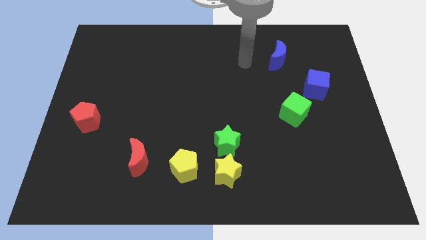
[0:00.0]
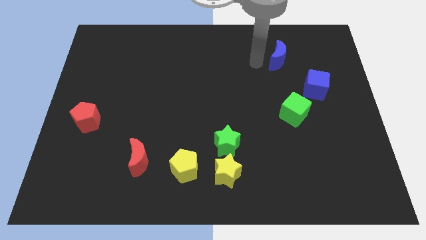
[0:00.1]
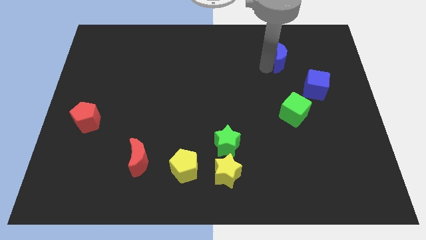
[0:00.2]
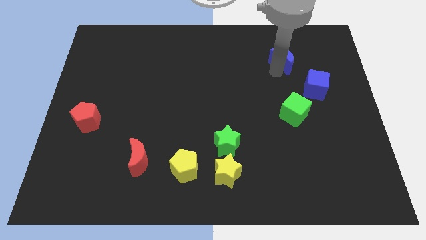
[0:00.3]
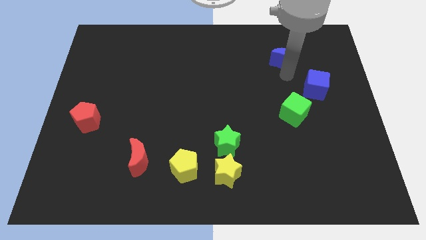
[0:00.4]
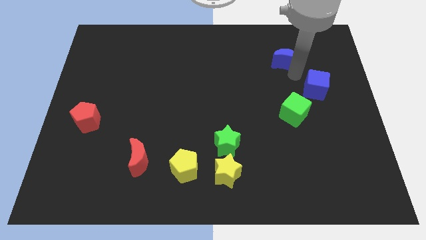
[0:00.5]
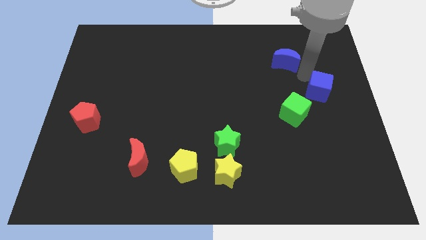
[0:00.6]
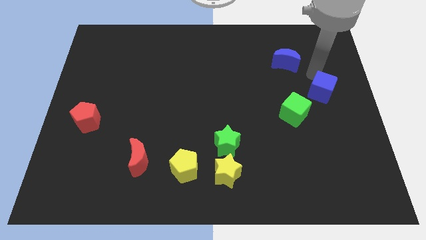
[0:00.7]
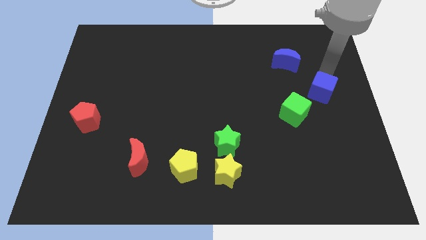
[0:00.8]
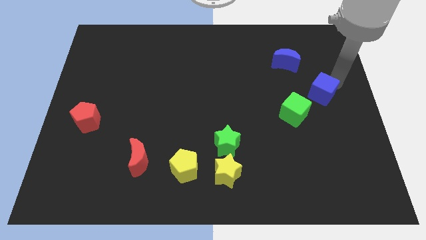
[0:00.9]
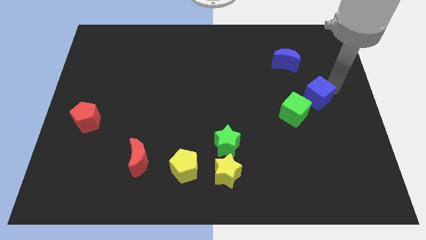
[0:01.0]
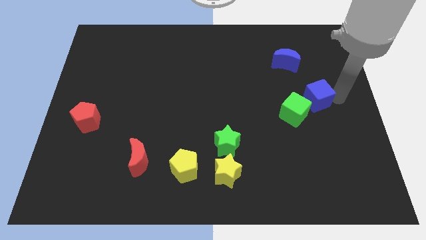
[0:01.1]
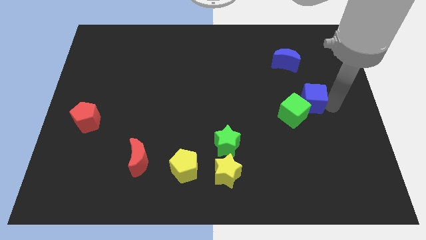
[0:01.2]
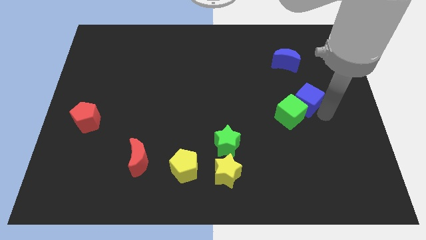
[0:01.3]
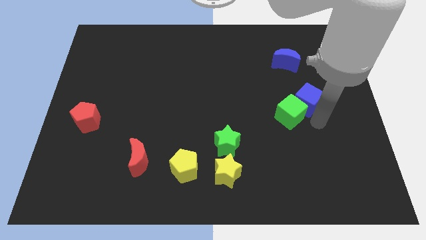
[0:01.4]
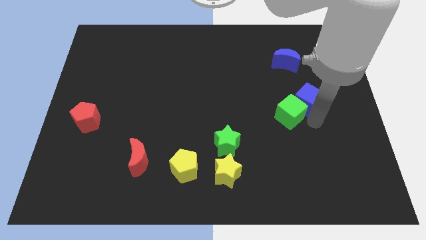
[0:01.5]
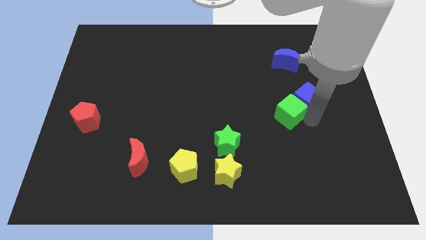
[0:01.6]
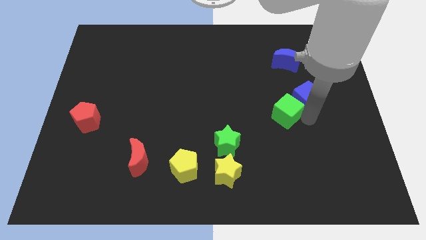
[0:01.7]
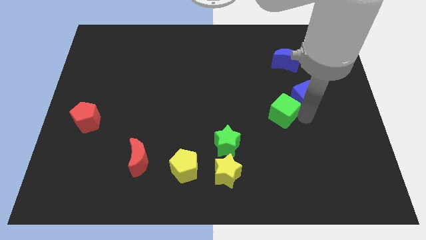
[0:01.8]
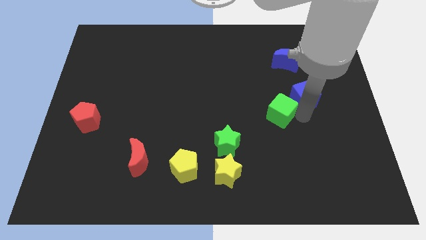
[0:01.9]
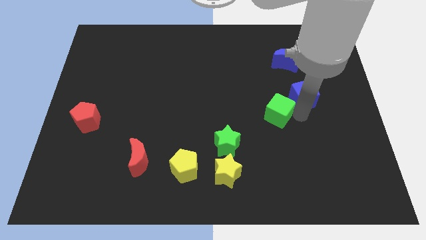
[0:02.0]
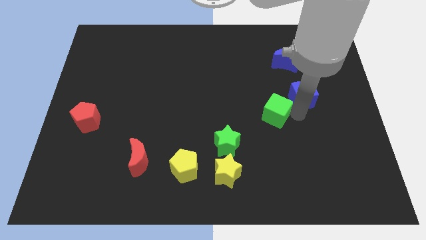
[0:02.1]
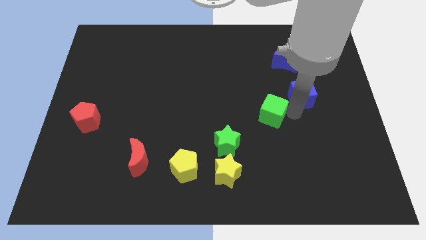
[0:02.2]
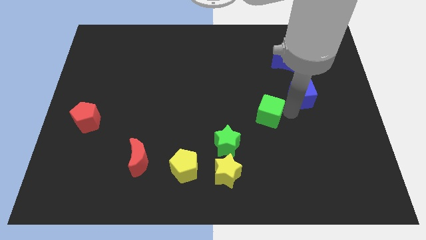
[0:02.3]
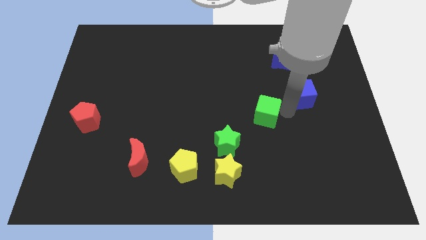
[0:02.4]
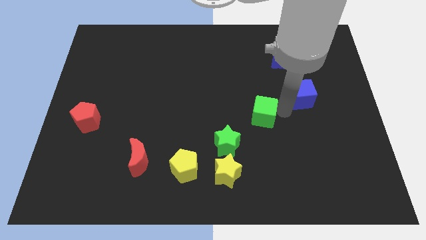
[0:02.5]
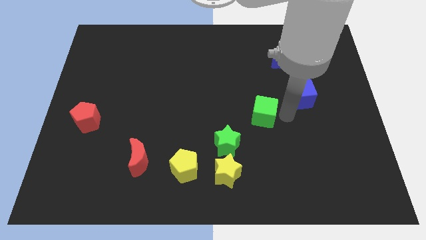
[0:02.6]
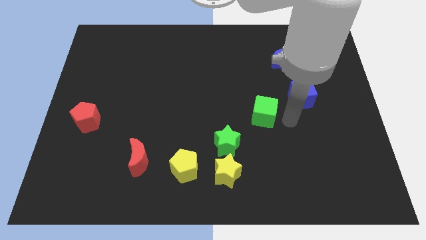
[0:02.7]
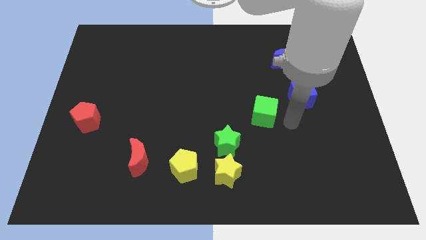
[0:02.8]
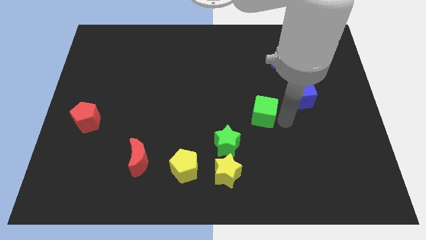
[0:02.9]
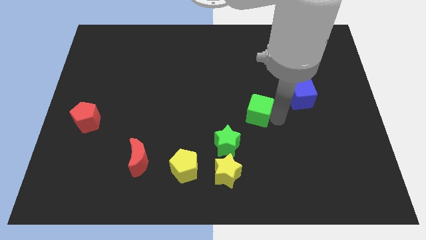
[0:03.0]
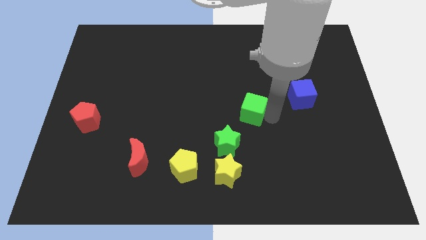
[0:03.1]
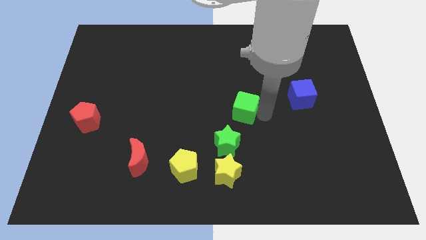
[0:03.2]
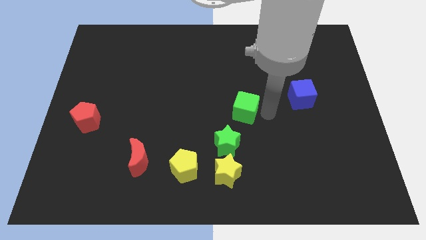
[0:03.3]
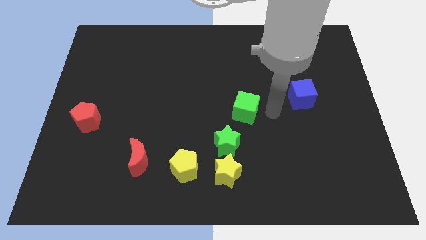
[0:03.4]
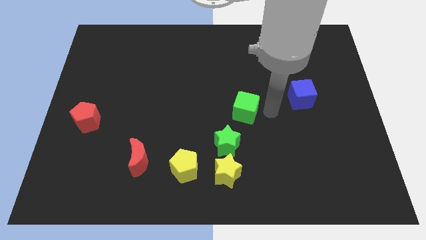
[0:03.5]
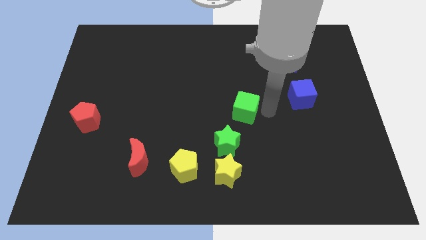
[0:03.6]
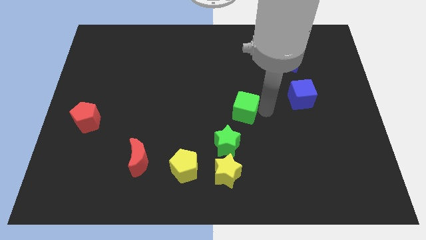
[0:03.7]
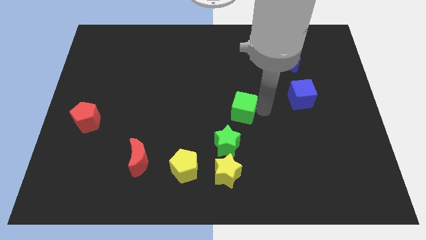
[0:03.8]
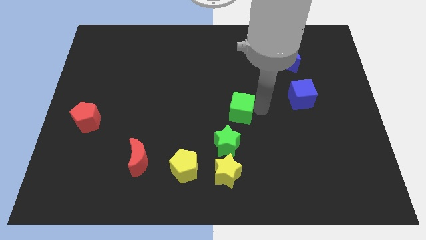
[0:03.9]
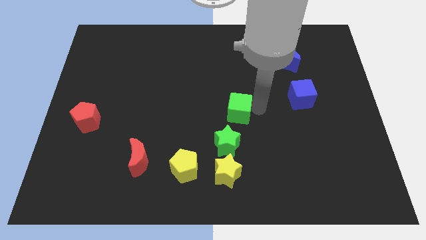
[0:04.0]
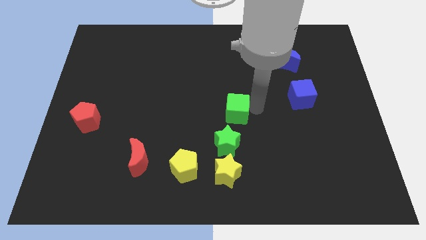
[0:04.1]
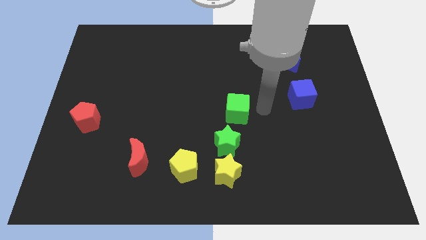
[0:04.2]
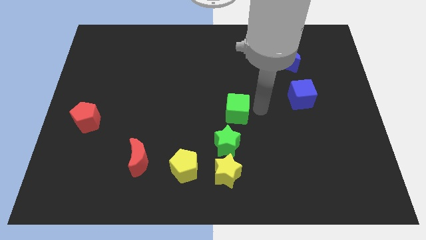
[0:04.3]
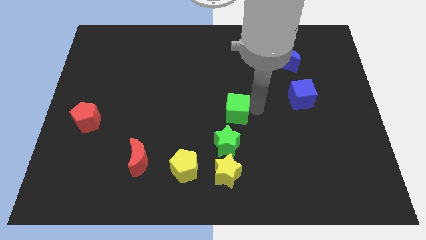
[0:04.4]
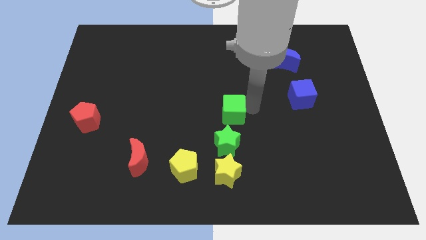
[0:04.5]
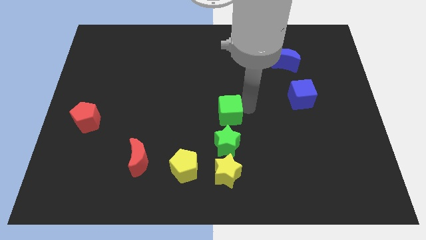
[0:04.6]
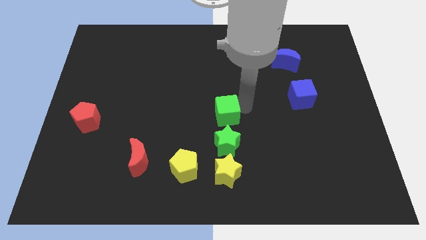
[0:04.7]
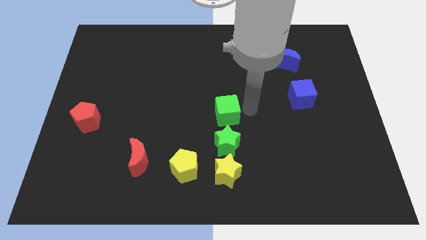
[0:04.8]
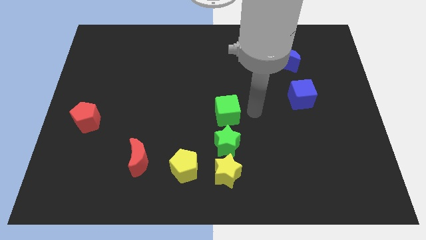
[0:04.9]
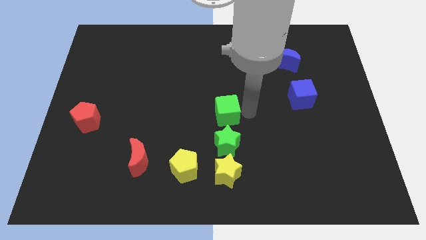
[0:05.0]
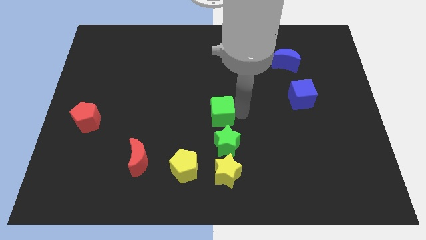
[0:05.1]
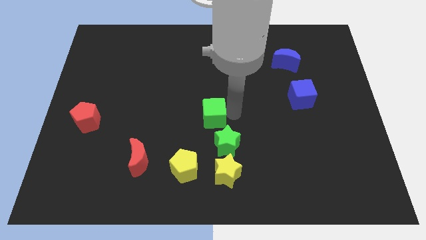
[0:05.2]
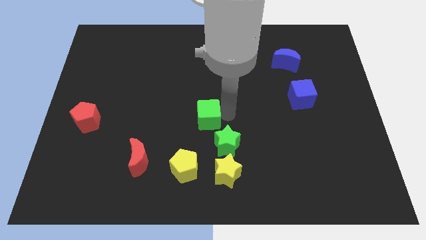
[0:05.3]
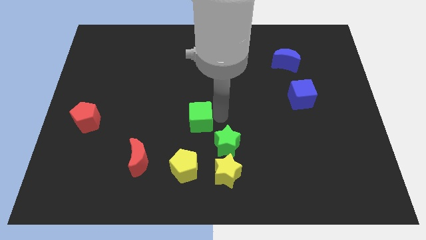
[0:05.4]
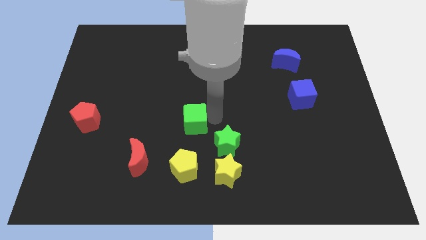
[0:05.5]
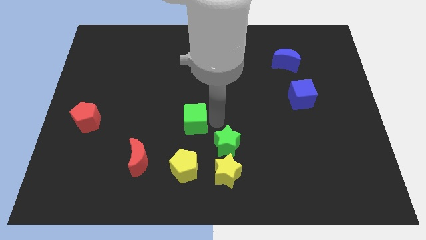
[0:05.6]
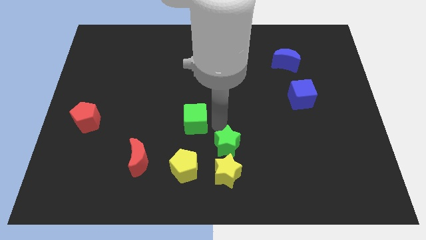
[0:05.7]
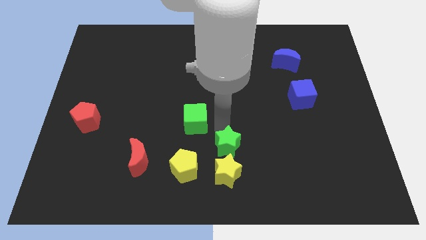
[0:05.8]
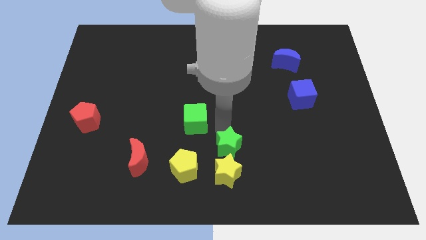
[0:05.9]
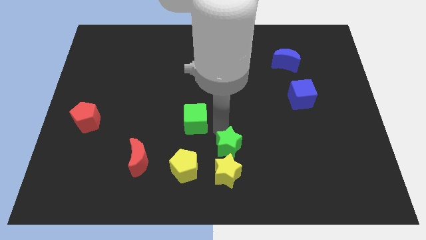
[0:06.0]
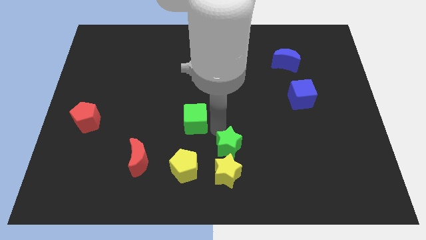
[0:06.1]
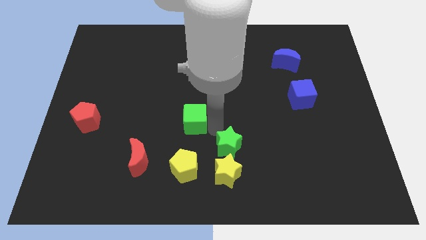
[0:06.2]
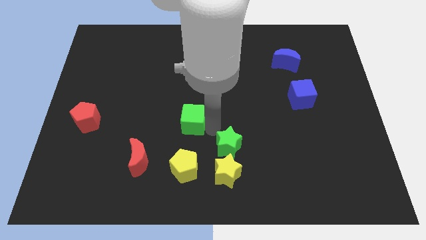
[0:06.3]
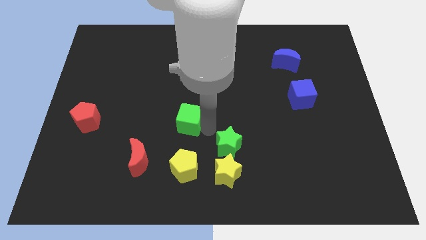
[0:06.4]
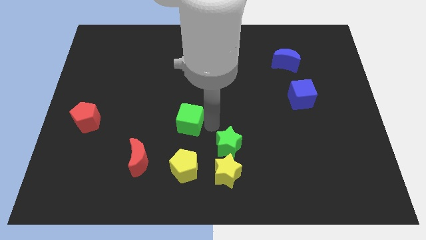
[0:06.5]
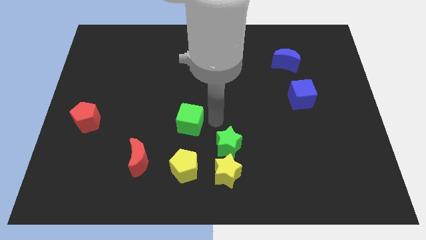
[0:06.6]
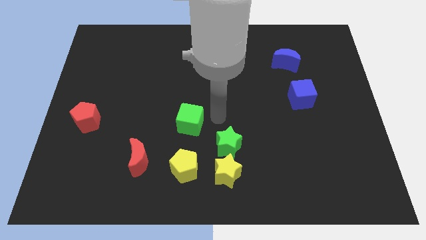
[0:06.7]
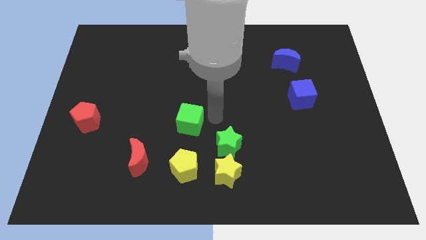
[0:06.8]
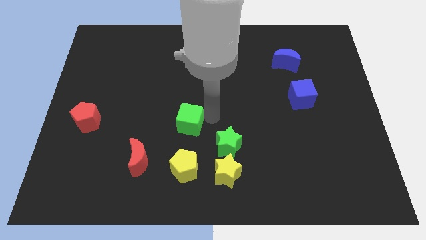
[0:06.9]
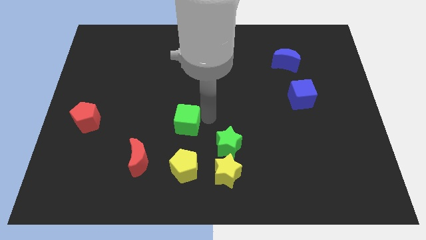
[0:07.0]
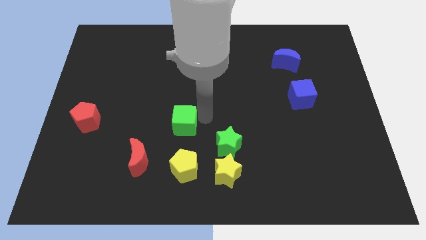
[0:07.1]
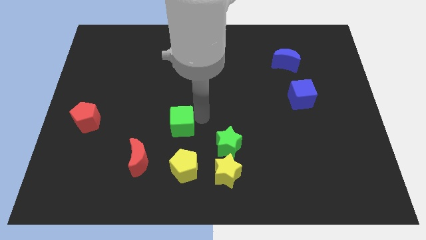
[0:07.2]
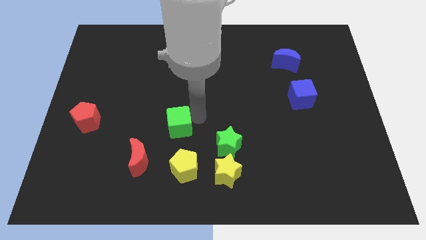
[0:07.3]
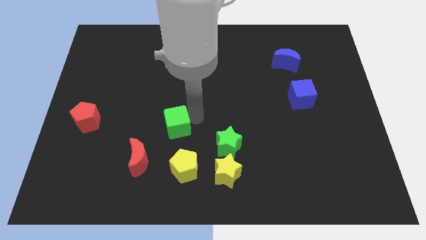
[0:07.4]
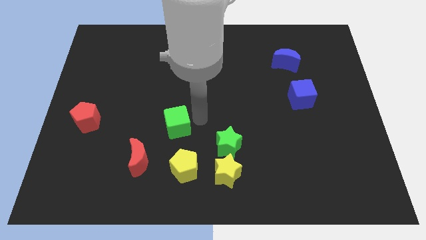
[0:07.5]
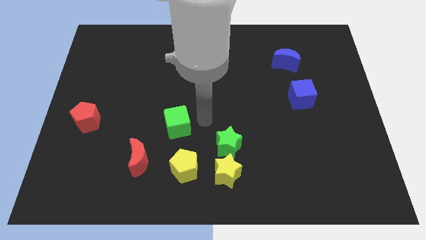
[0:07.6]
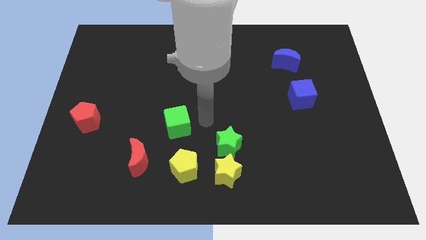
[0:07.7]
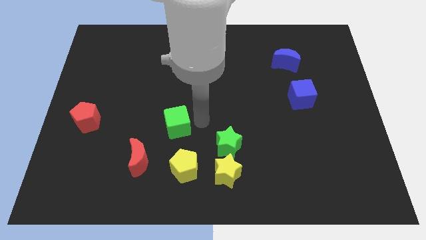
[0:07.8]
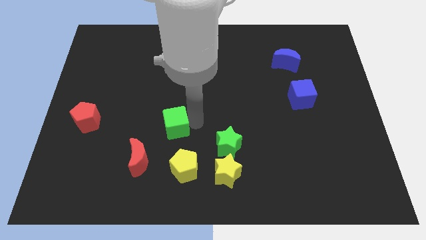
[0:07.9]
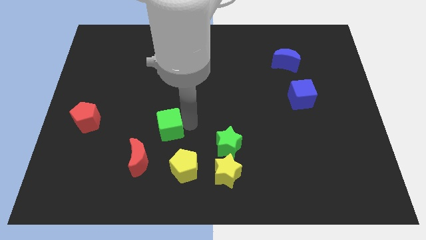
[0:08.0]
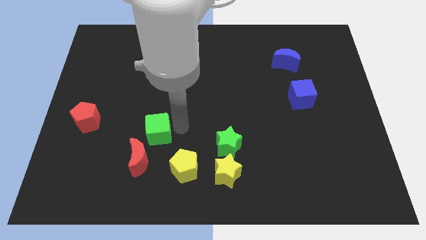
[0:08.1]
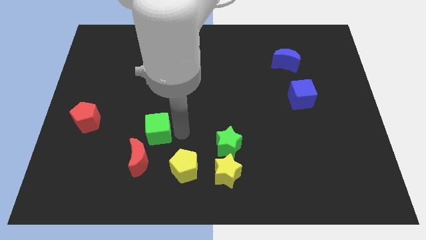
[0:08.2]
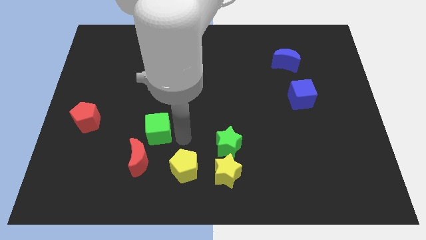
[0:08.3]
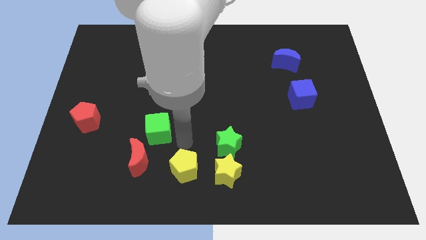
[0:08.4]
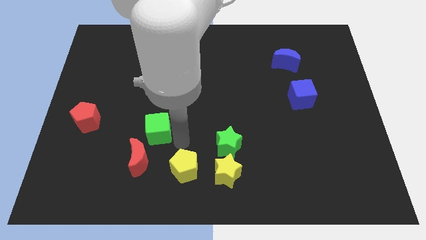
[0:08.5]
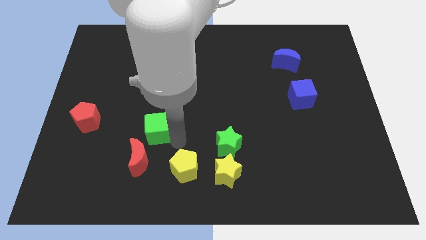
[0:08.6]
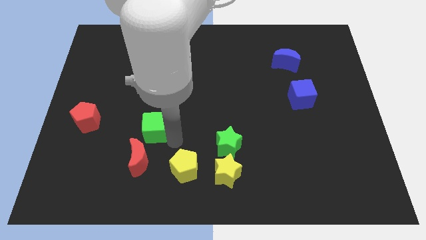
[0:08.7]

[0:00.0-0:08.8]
push the green cube to the right of the red pentagon
